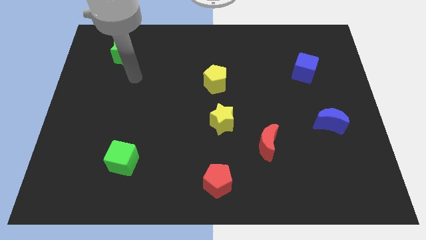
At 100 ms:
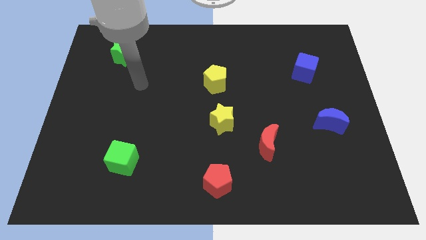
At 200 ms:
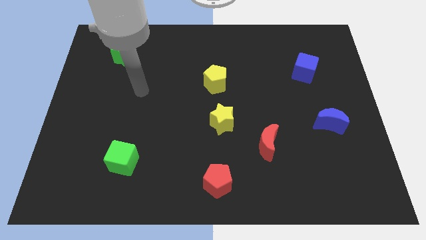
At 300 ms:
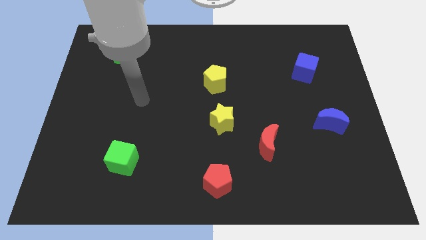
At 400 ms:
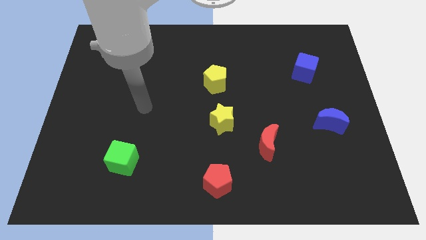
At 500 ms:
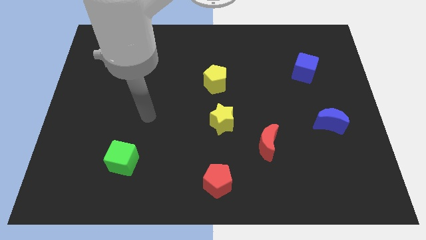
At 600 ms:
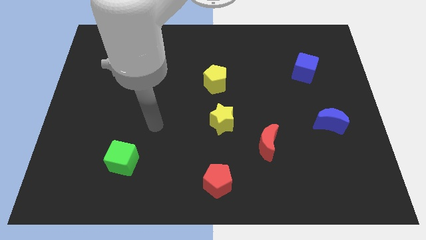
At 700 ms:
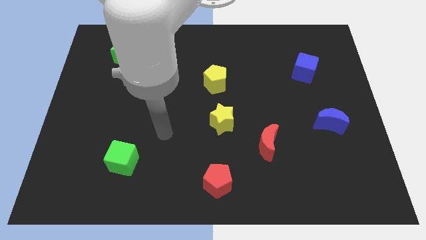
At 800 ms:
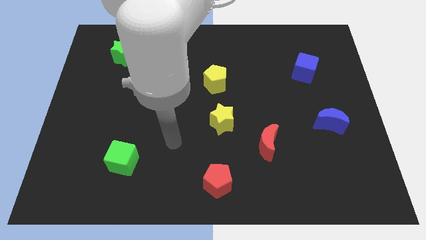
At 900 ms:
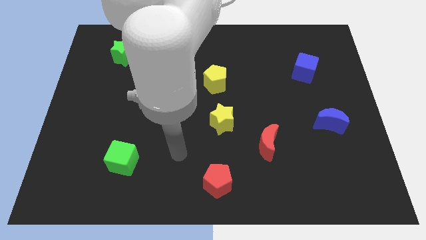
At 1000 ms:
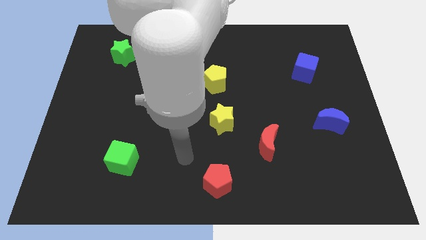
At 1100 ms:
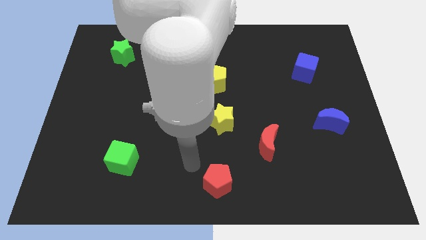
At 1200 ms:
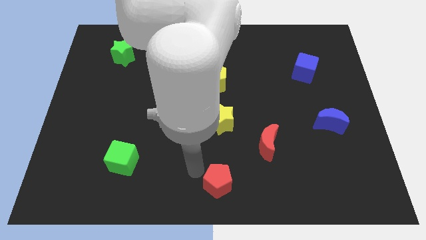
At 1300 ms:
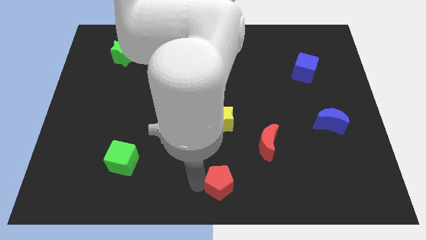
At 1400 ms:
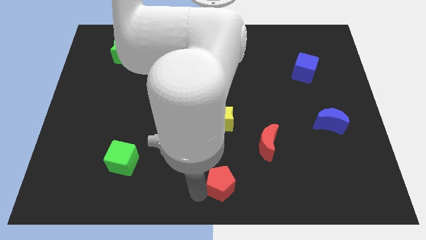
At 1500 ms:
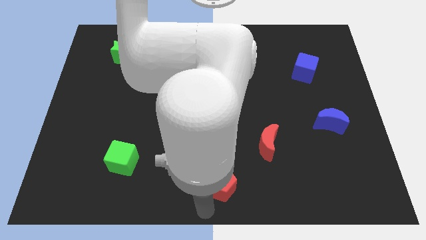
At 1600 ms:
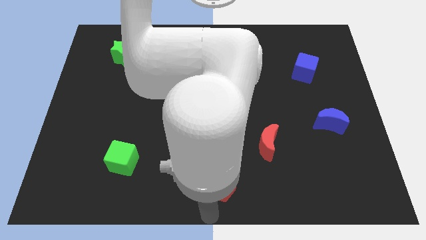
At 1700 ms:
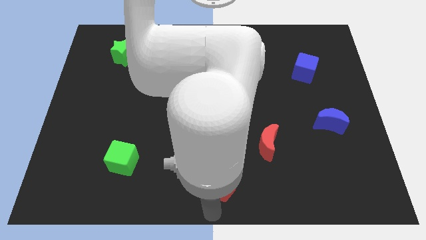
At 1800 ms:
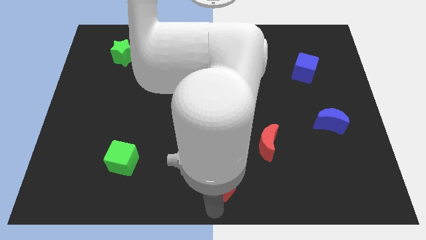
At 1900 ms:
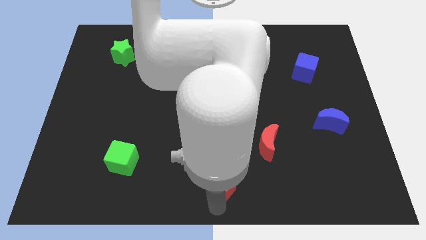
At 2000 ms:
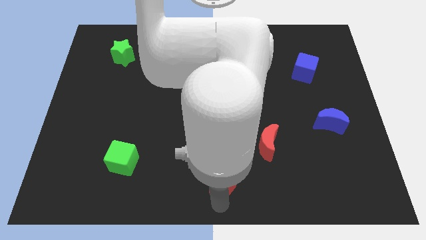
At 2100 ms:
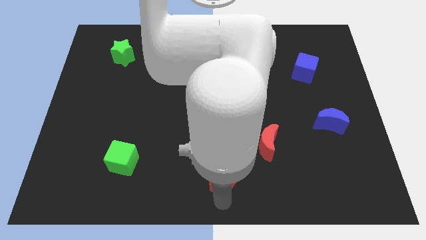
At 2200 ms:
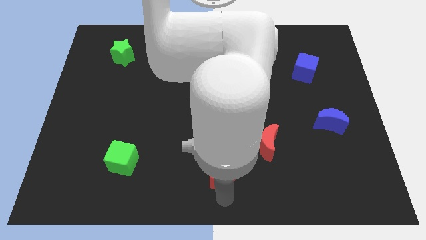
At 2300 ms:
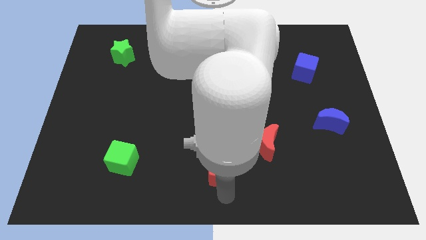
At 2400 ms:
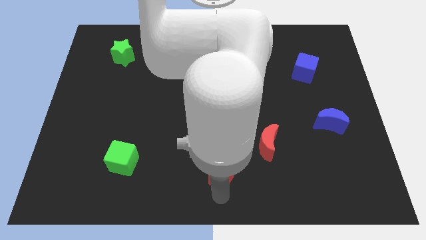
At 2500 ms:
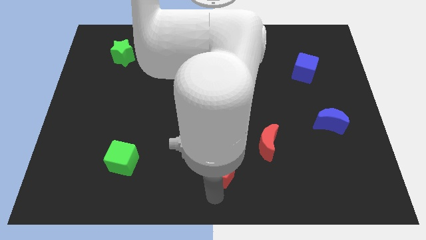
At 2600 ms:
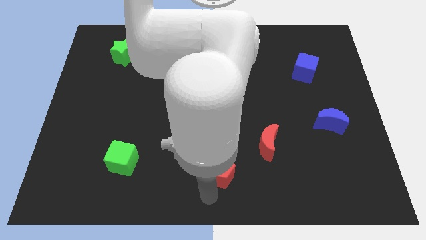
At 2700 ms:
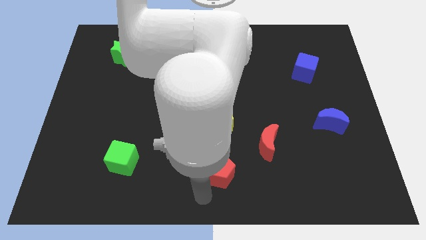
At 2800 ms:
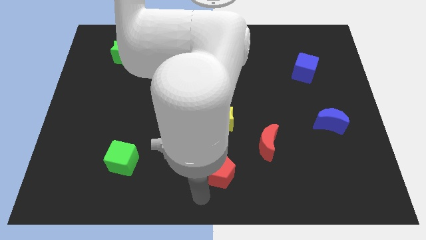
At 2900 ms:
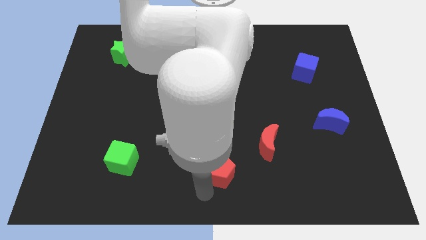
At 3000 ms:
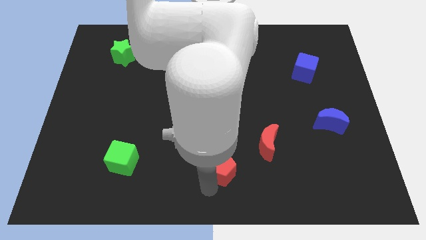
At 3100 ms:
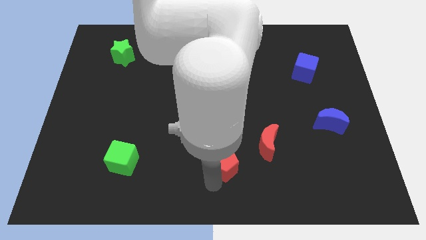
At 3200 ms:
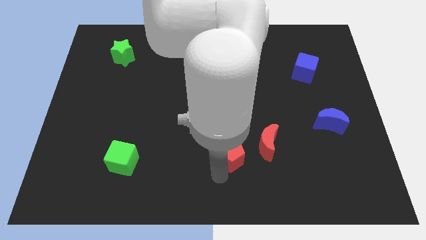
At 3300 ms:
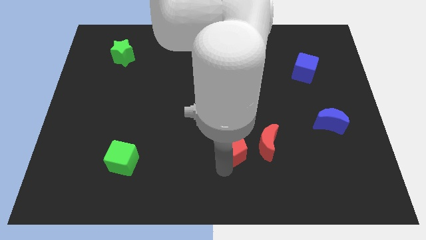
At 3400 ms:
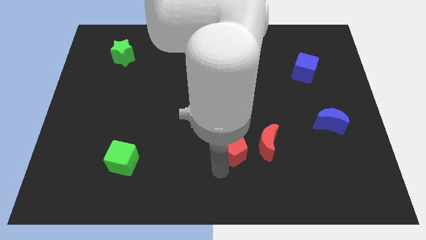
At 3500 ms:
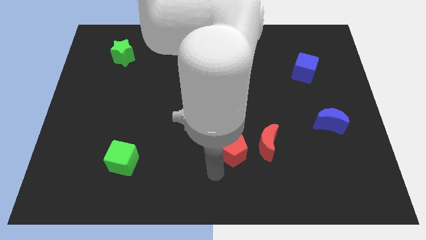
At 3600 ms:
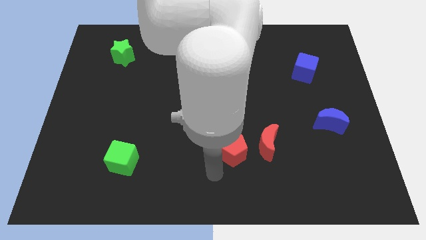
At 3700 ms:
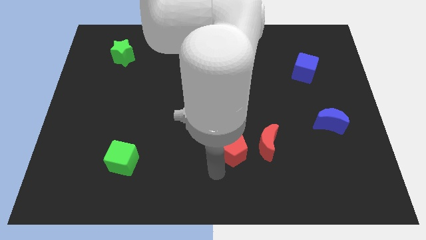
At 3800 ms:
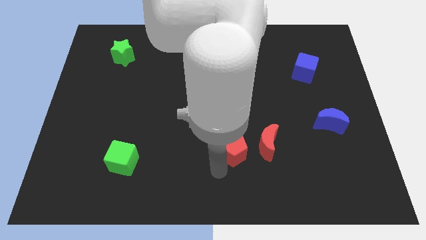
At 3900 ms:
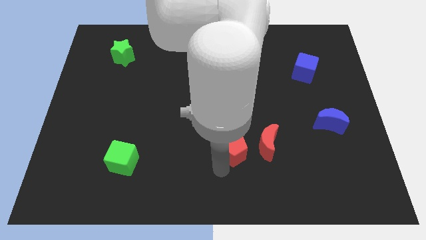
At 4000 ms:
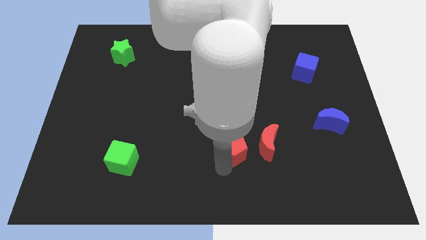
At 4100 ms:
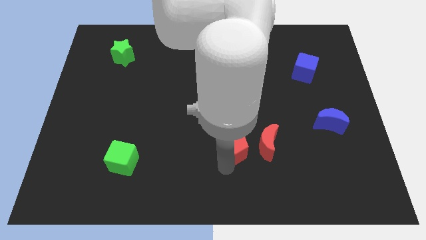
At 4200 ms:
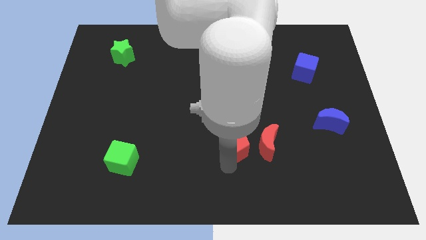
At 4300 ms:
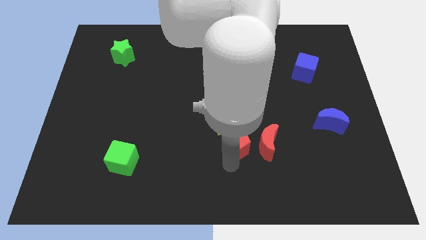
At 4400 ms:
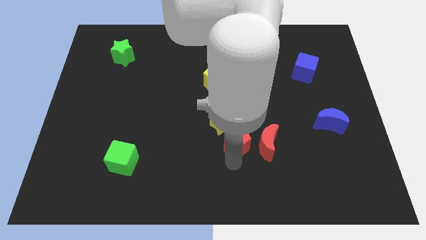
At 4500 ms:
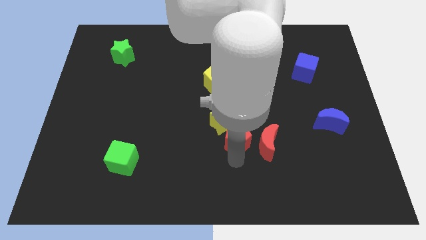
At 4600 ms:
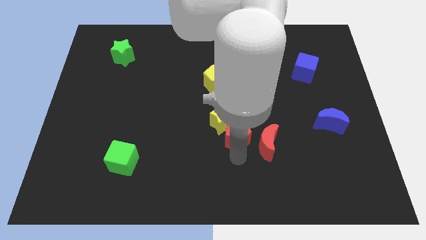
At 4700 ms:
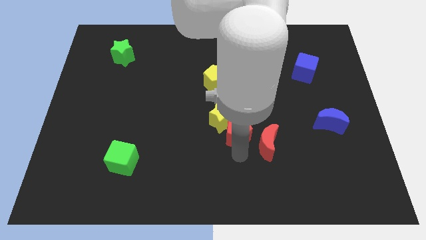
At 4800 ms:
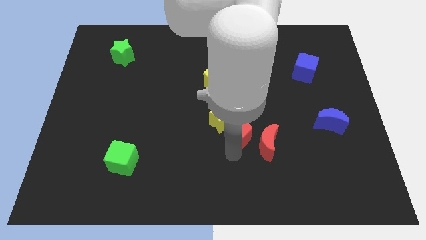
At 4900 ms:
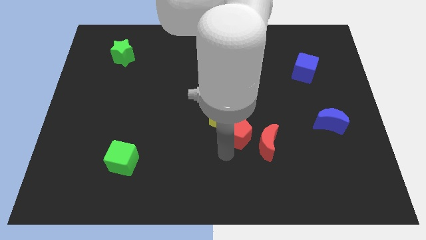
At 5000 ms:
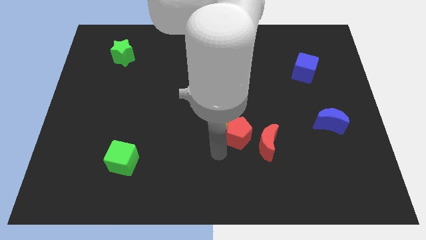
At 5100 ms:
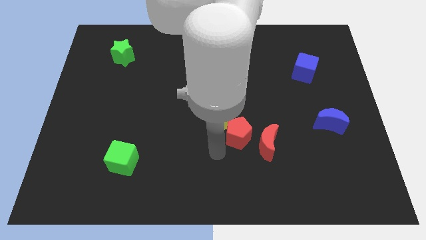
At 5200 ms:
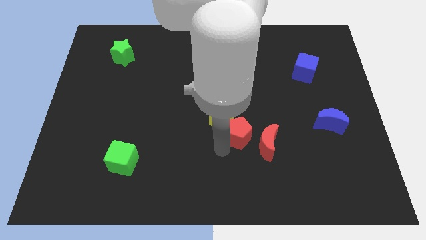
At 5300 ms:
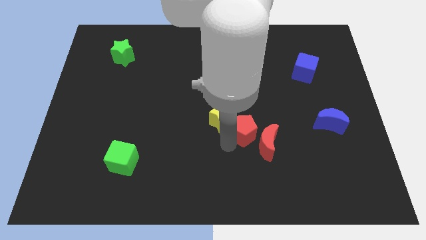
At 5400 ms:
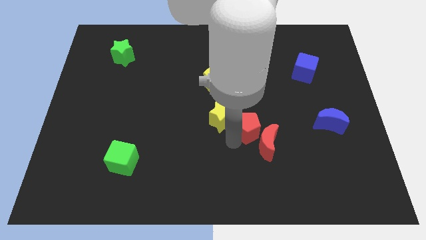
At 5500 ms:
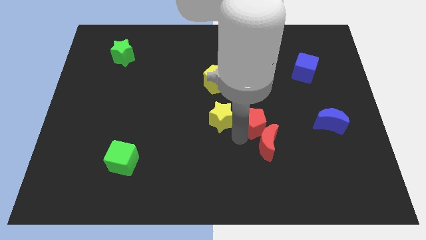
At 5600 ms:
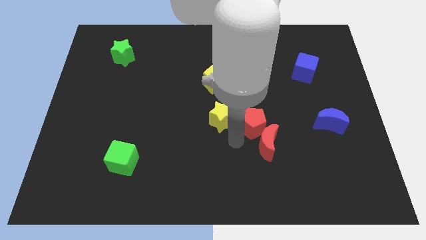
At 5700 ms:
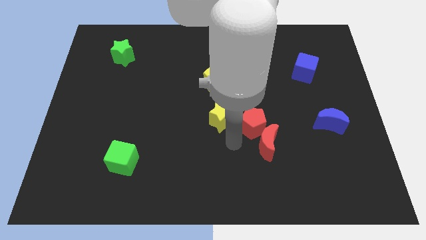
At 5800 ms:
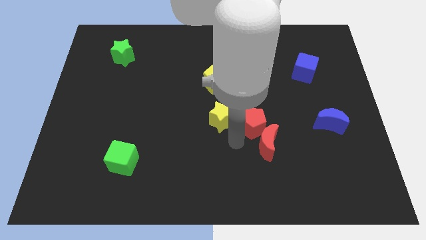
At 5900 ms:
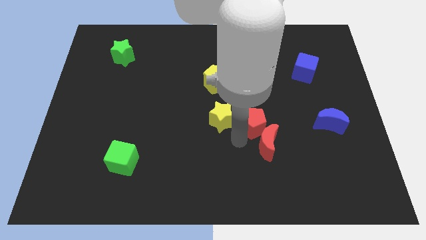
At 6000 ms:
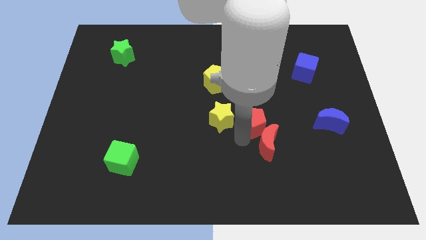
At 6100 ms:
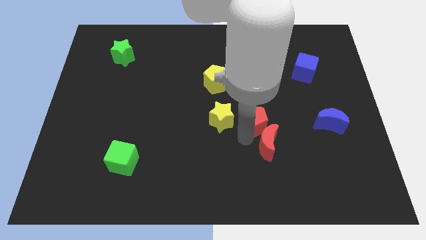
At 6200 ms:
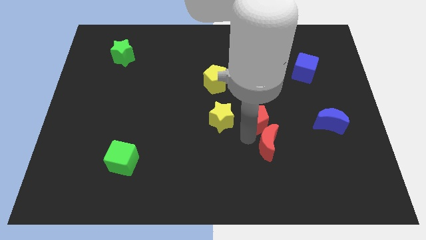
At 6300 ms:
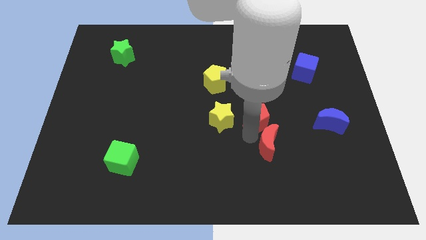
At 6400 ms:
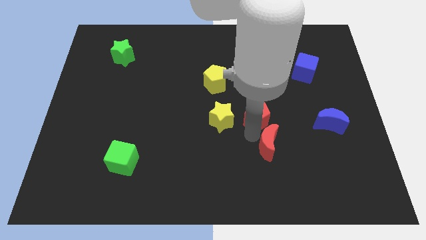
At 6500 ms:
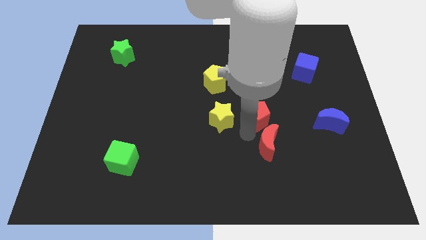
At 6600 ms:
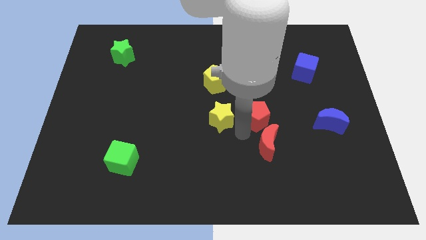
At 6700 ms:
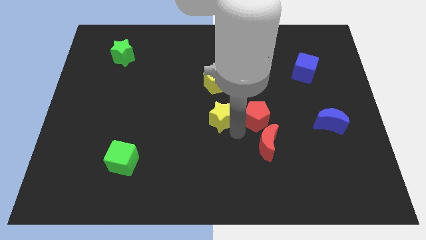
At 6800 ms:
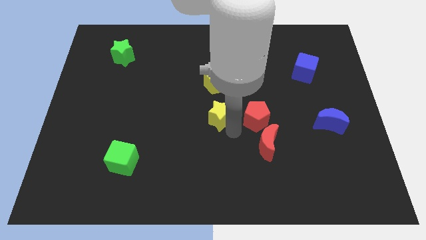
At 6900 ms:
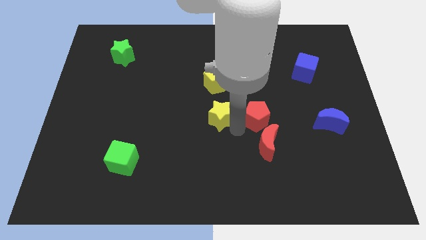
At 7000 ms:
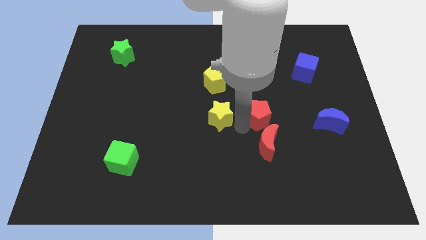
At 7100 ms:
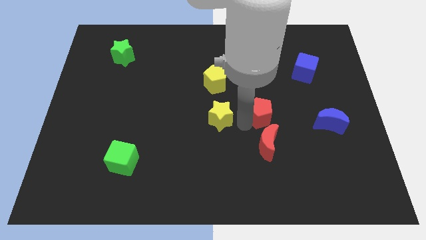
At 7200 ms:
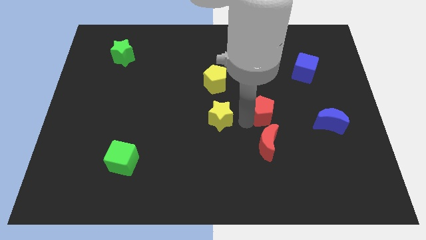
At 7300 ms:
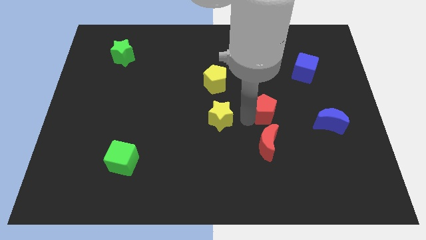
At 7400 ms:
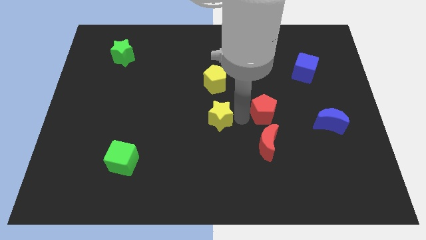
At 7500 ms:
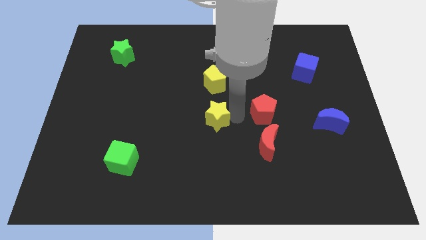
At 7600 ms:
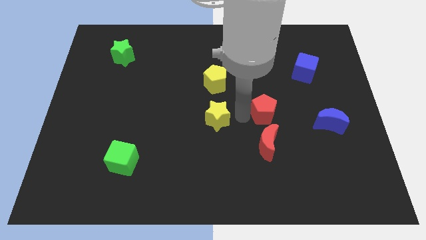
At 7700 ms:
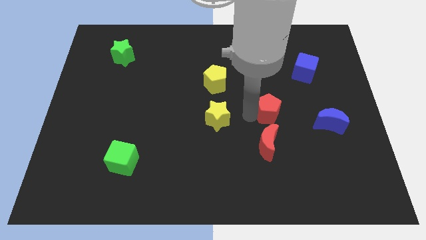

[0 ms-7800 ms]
push the red pentagon upwards and then to the right

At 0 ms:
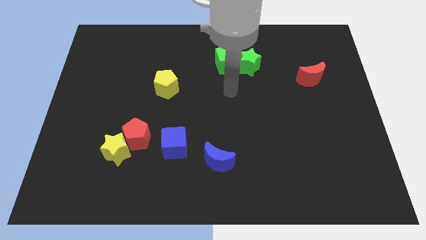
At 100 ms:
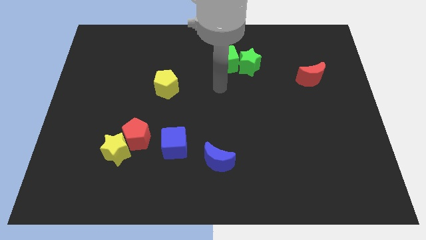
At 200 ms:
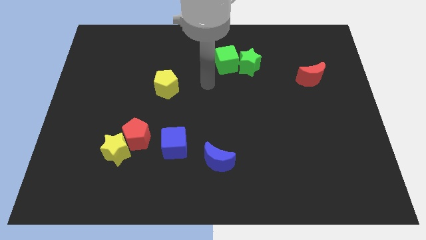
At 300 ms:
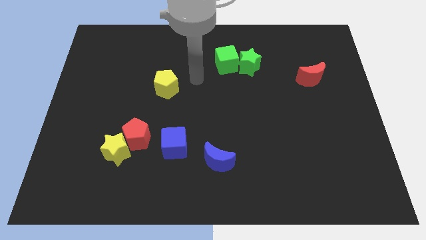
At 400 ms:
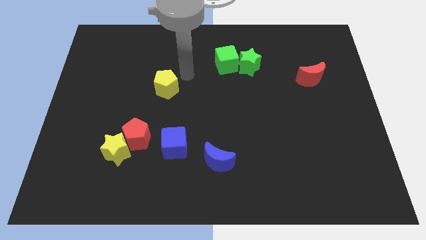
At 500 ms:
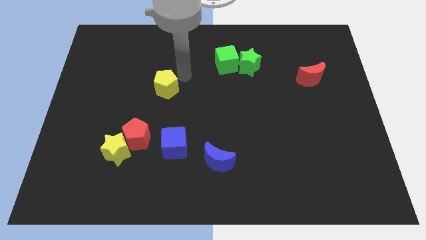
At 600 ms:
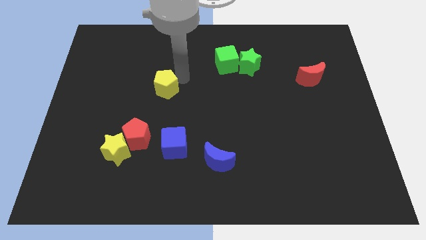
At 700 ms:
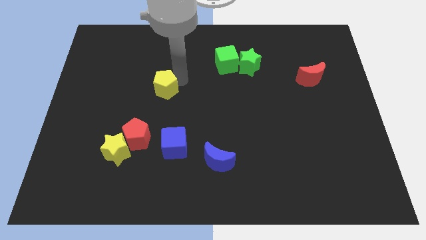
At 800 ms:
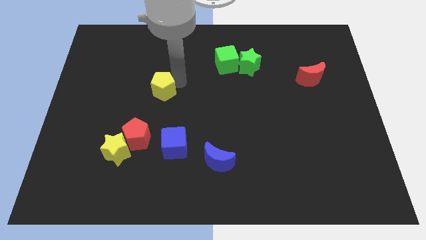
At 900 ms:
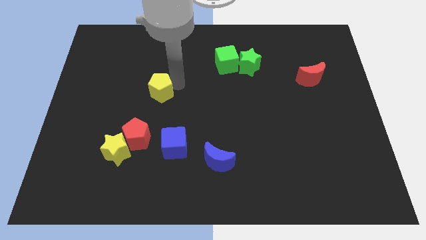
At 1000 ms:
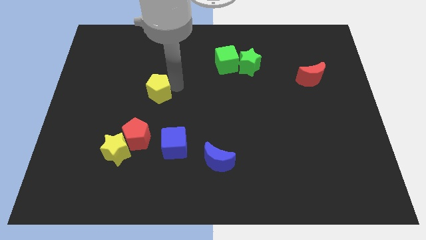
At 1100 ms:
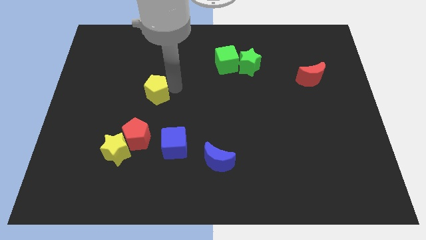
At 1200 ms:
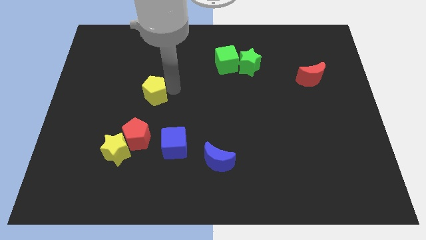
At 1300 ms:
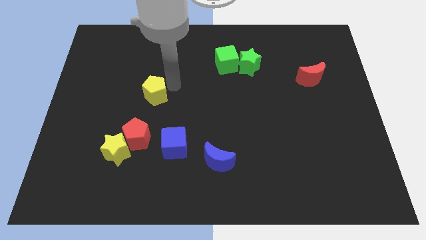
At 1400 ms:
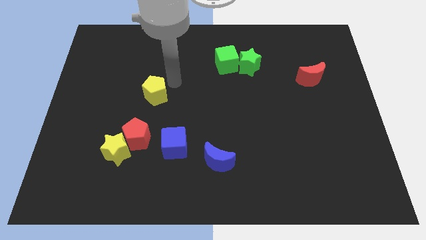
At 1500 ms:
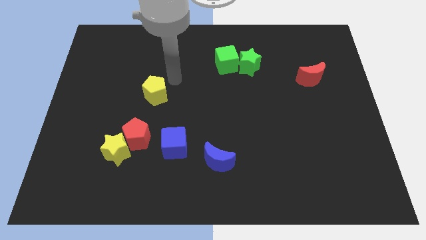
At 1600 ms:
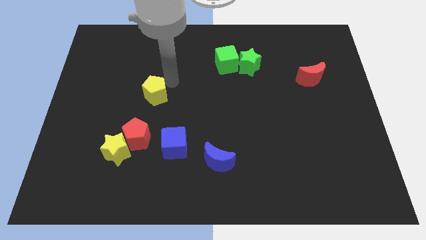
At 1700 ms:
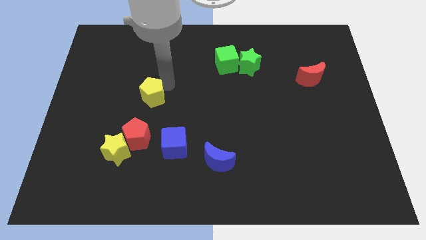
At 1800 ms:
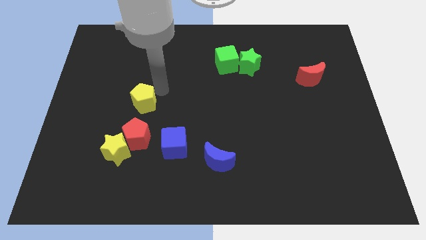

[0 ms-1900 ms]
slightly push the yellow pentagon downwards and then to the left
